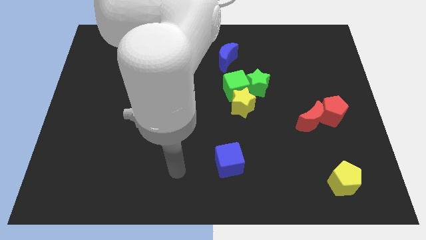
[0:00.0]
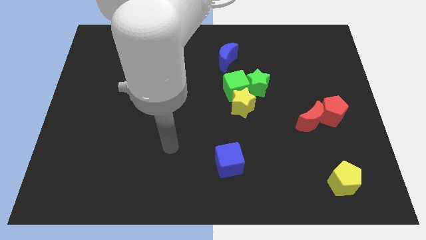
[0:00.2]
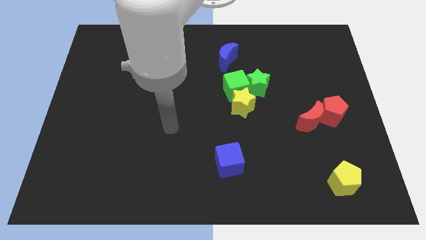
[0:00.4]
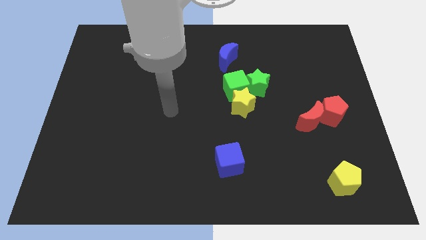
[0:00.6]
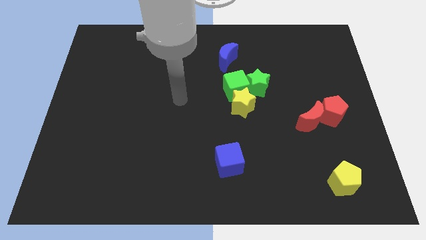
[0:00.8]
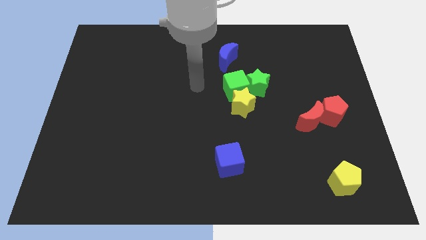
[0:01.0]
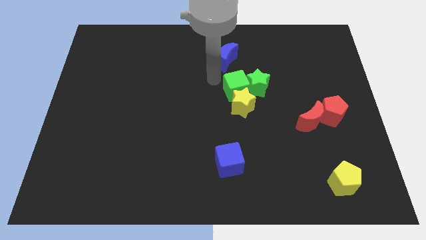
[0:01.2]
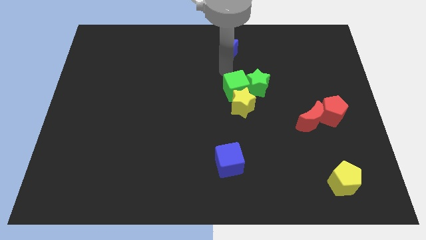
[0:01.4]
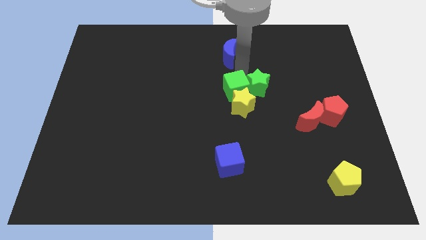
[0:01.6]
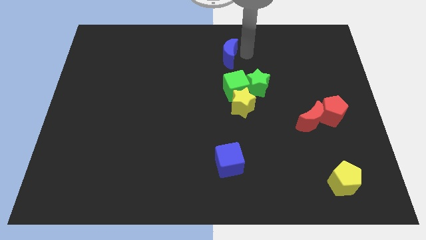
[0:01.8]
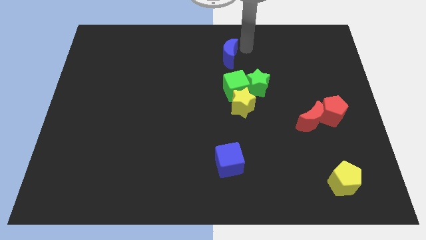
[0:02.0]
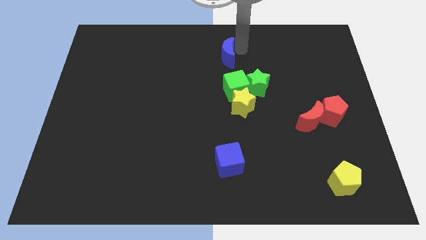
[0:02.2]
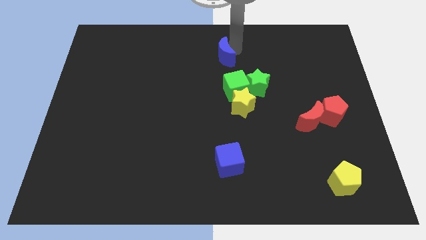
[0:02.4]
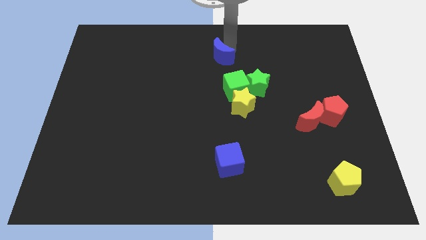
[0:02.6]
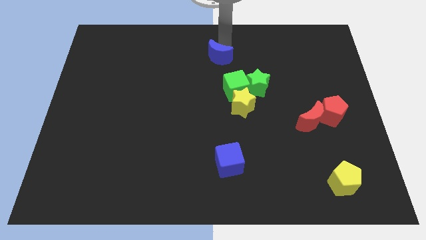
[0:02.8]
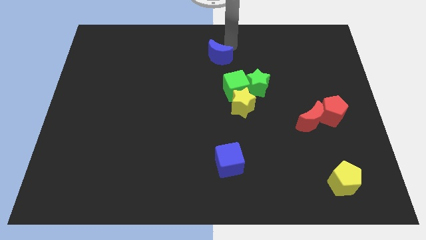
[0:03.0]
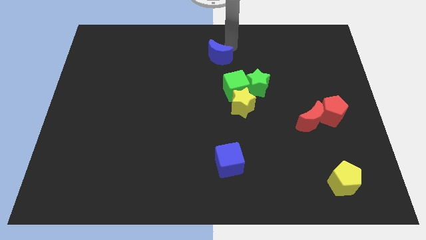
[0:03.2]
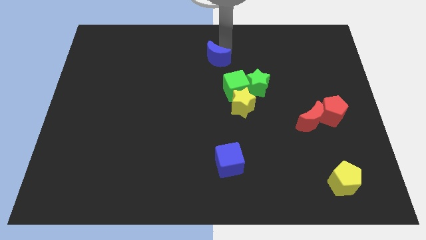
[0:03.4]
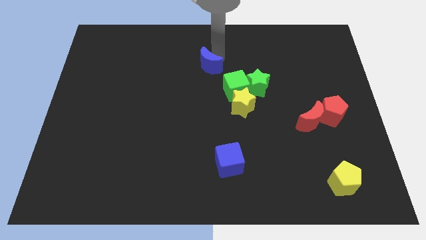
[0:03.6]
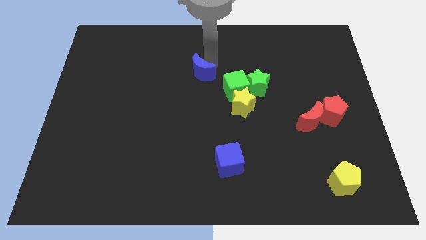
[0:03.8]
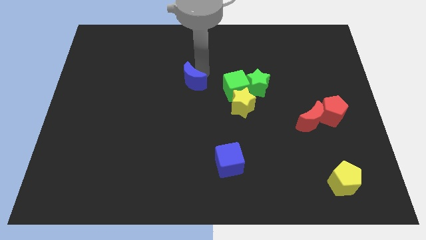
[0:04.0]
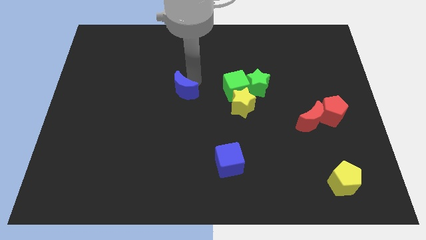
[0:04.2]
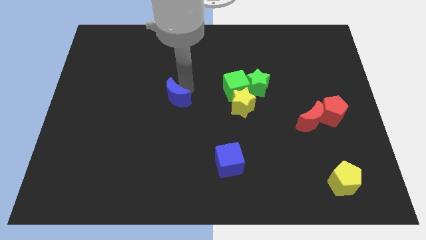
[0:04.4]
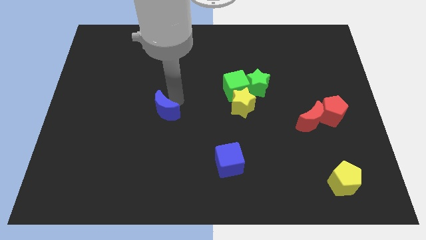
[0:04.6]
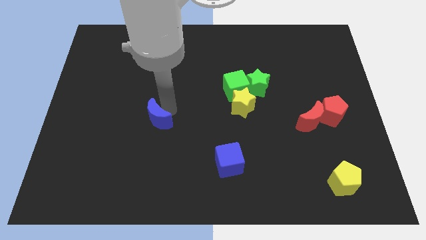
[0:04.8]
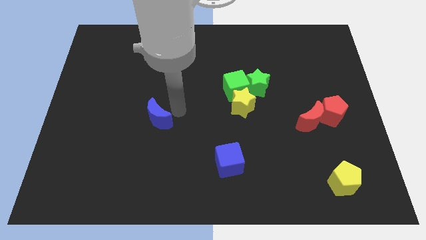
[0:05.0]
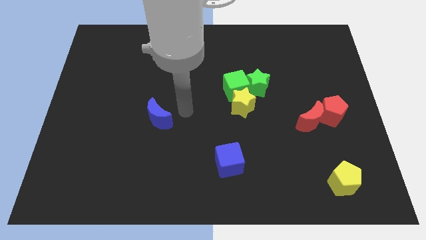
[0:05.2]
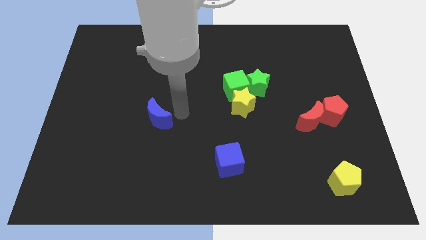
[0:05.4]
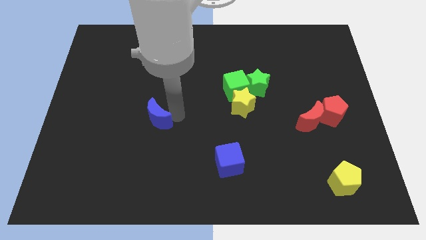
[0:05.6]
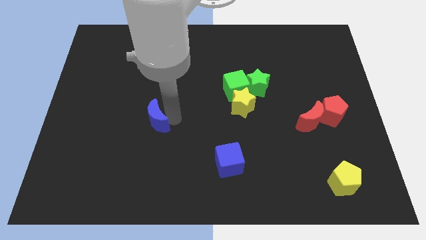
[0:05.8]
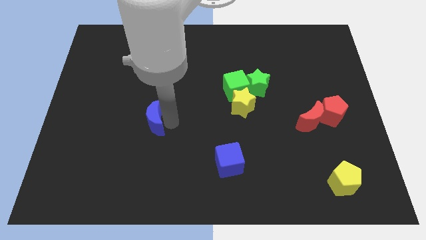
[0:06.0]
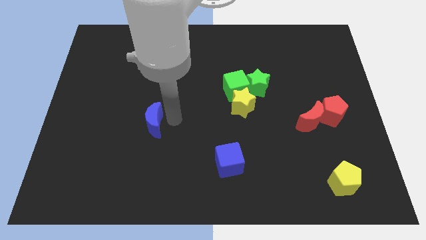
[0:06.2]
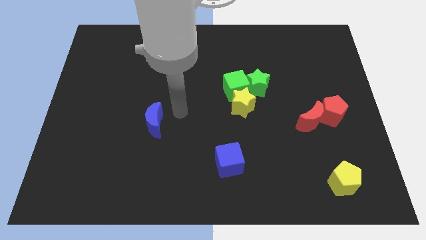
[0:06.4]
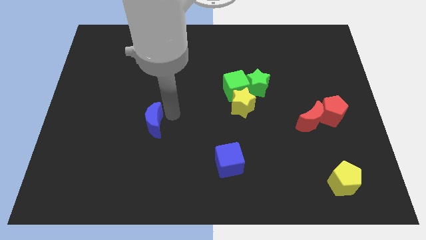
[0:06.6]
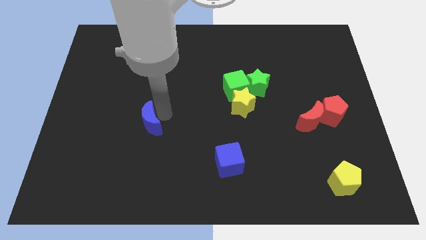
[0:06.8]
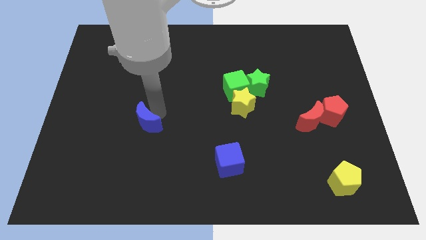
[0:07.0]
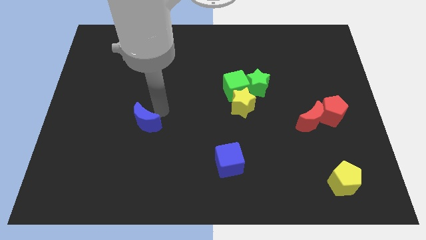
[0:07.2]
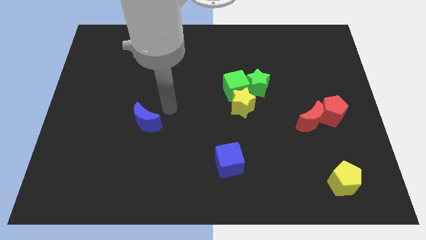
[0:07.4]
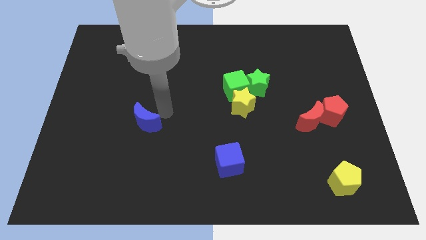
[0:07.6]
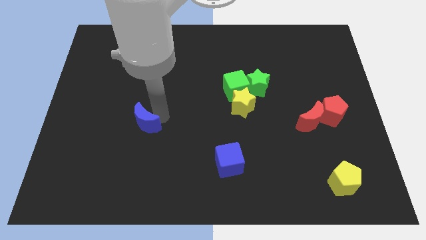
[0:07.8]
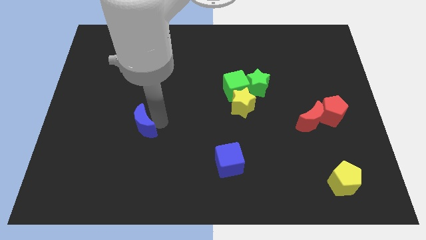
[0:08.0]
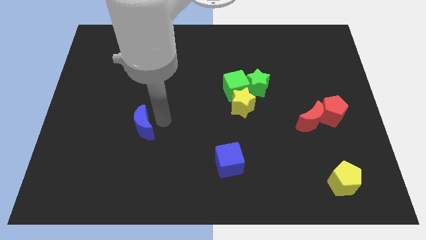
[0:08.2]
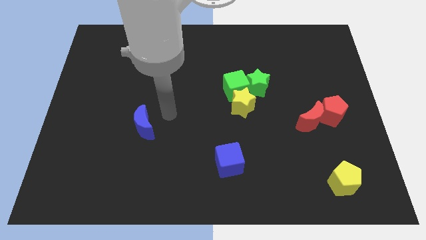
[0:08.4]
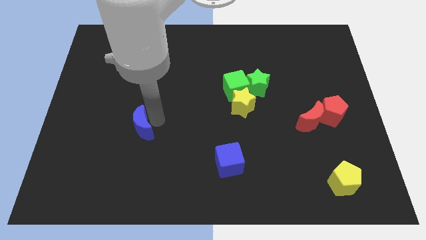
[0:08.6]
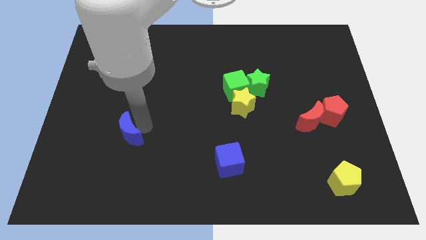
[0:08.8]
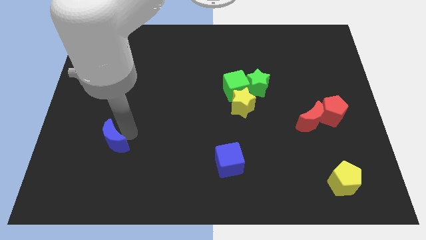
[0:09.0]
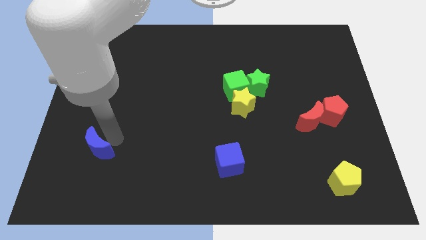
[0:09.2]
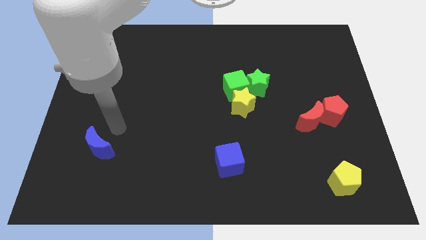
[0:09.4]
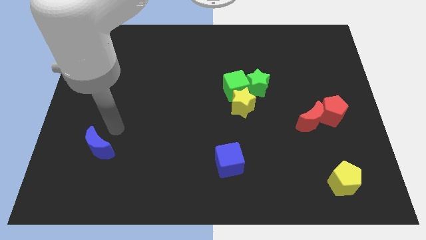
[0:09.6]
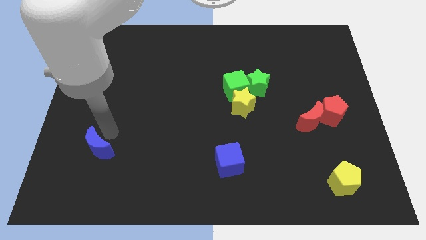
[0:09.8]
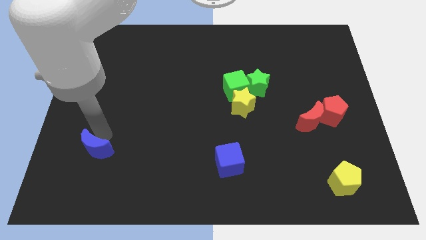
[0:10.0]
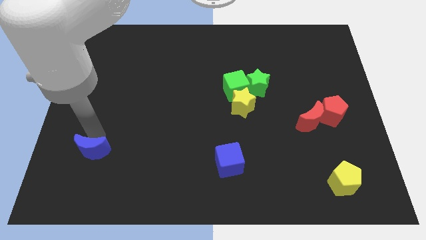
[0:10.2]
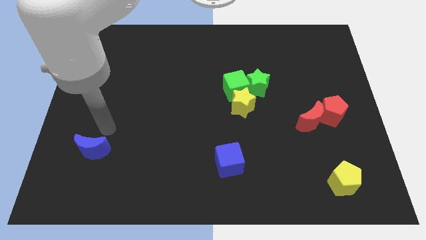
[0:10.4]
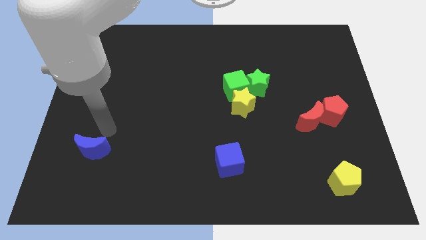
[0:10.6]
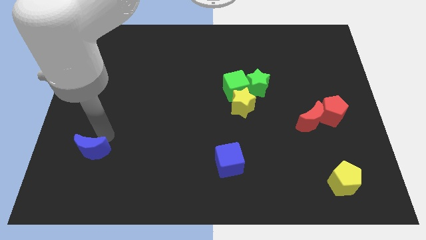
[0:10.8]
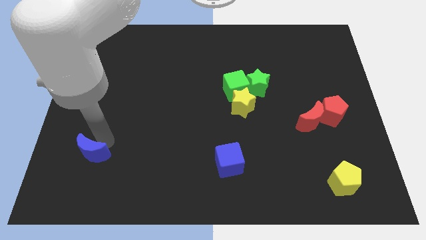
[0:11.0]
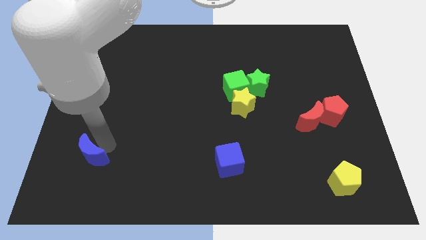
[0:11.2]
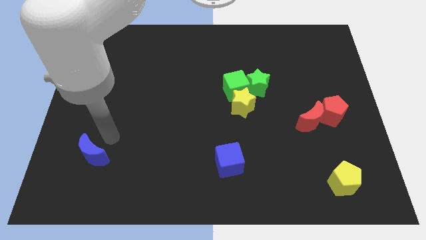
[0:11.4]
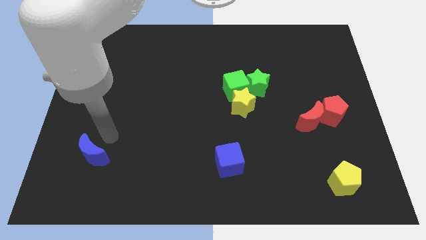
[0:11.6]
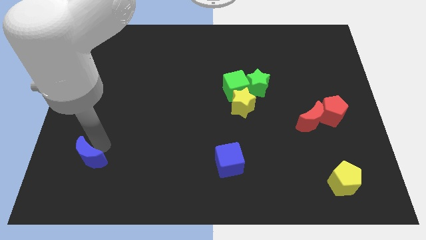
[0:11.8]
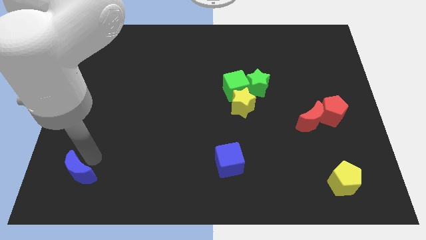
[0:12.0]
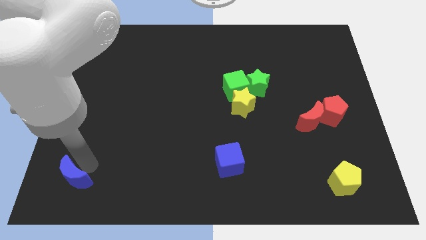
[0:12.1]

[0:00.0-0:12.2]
move the blue moon to the bottom left corner

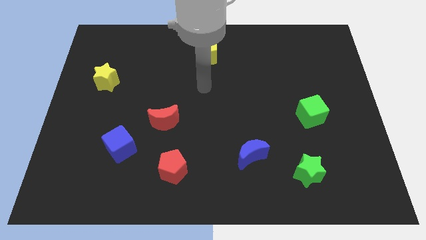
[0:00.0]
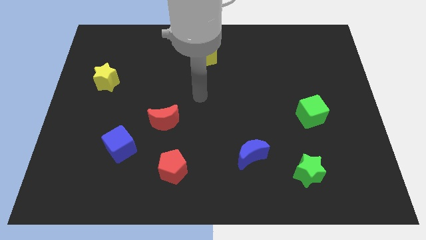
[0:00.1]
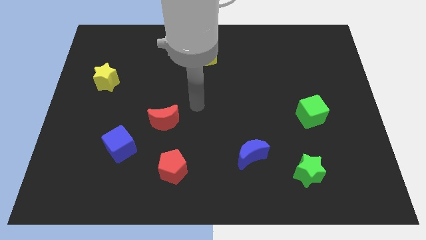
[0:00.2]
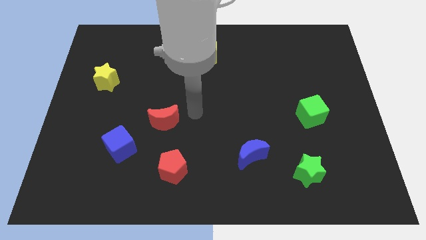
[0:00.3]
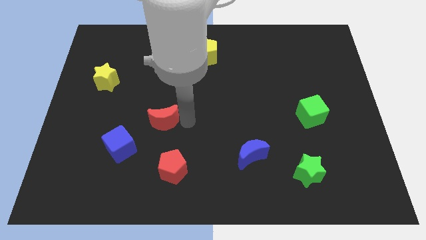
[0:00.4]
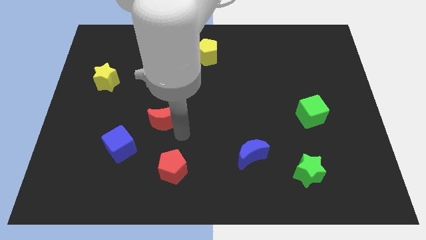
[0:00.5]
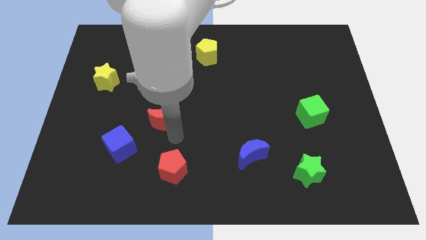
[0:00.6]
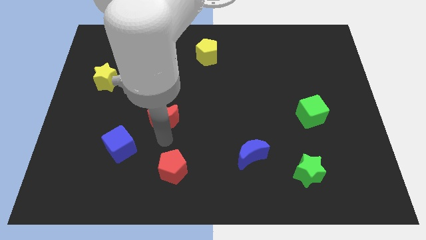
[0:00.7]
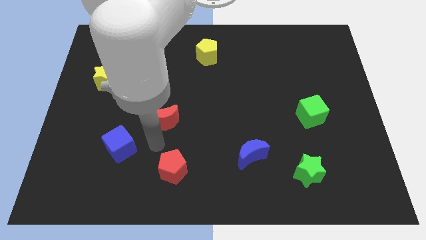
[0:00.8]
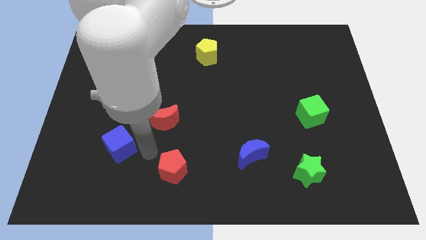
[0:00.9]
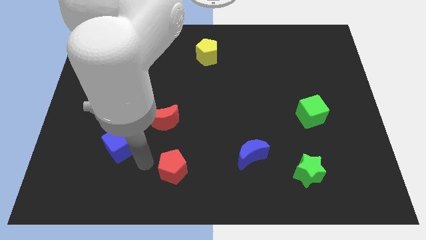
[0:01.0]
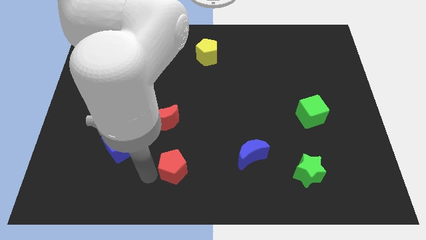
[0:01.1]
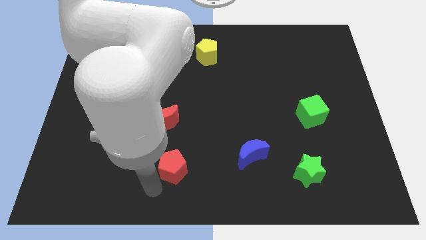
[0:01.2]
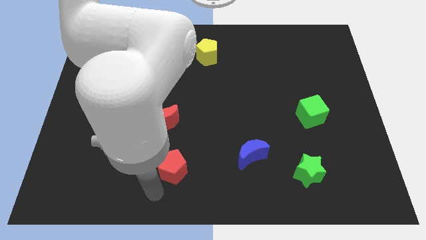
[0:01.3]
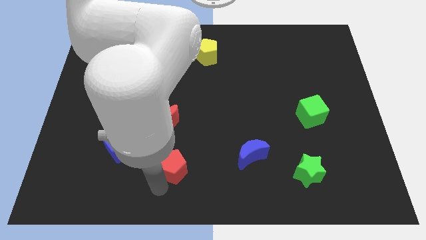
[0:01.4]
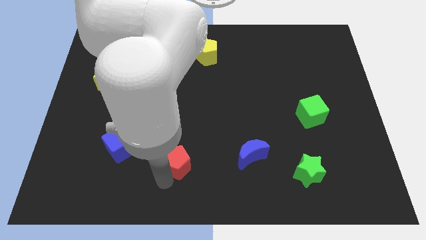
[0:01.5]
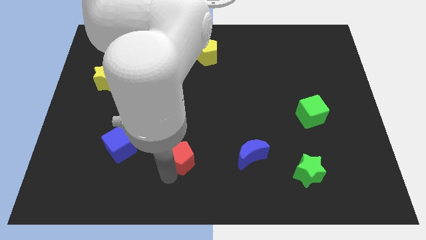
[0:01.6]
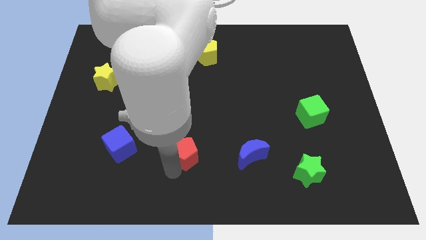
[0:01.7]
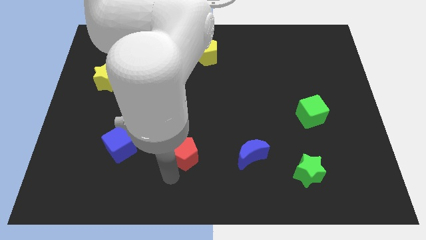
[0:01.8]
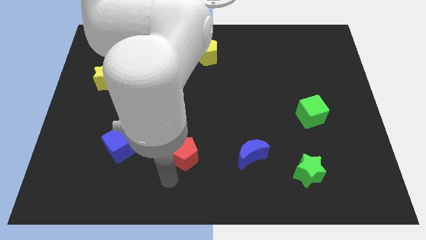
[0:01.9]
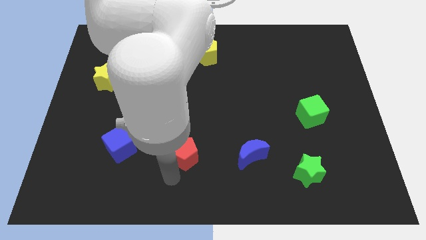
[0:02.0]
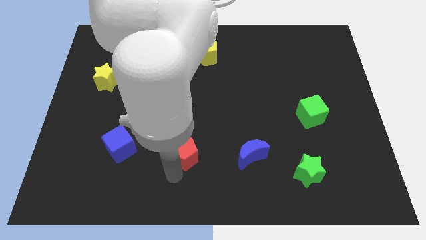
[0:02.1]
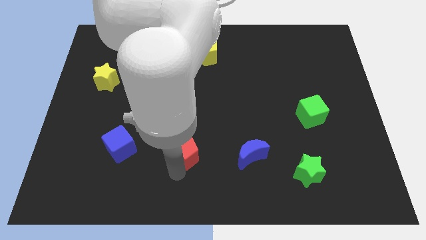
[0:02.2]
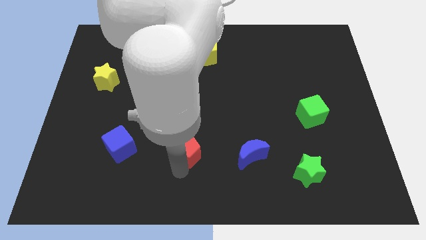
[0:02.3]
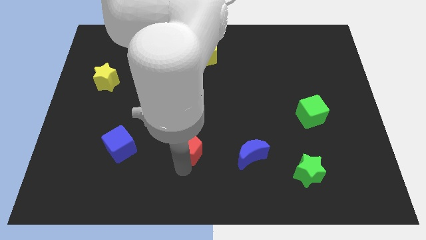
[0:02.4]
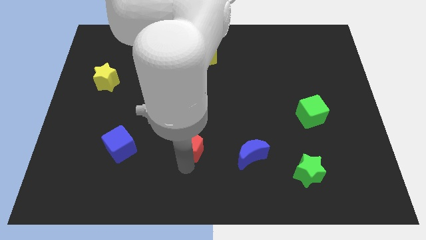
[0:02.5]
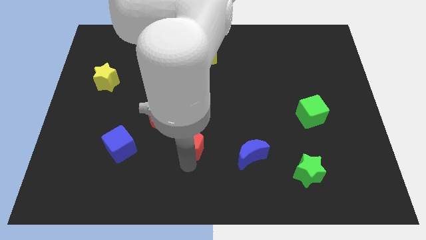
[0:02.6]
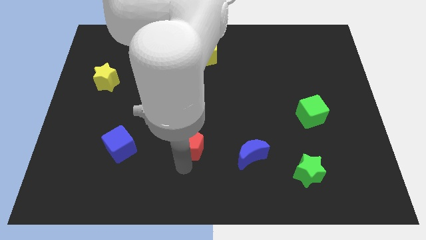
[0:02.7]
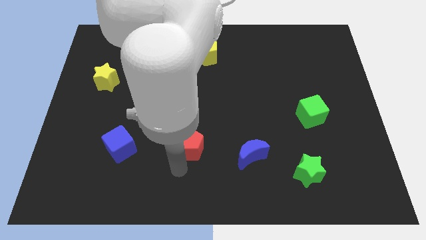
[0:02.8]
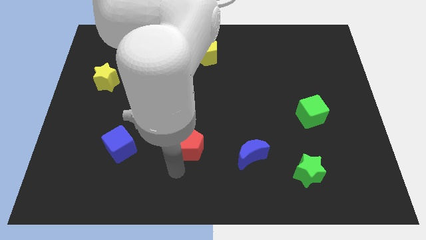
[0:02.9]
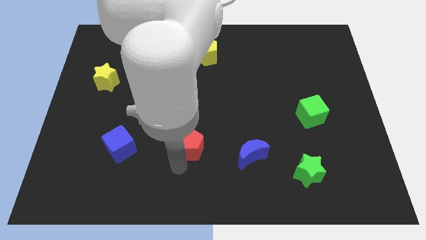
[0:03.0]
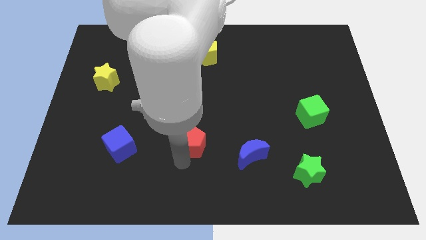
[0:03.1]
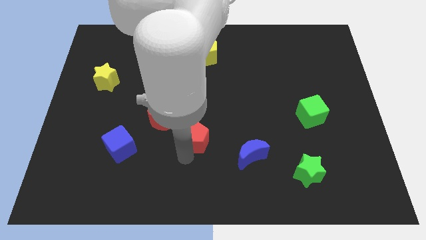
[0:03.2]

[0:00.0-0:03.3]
put the red pentagon to the center of the board
